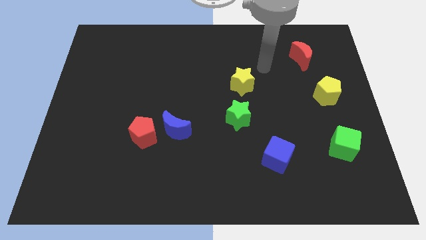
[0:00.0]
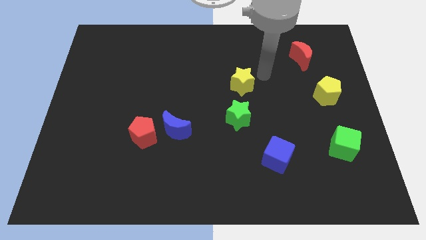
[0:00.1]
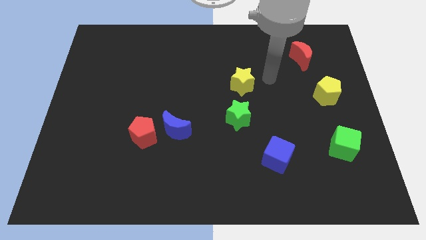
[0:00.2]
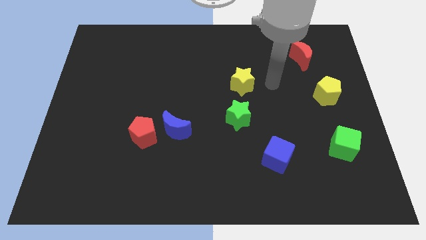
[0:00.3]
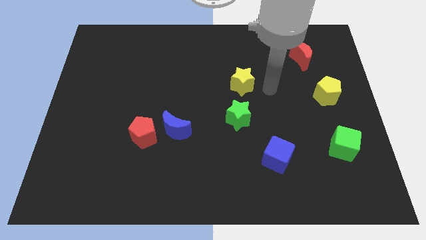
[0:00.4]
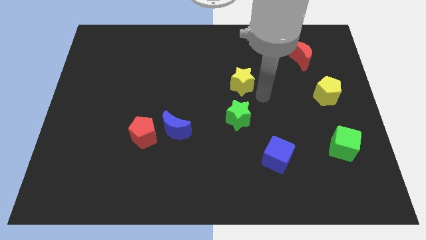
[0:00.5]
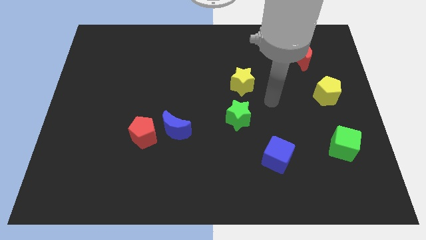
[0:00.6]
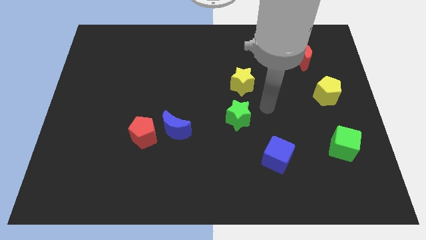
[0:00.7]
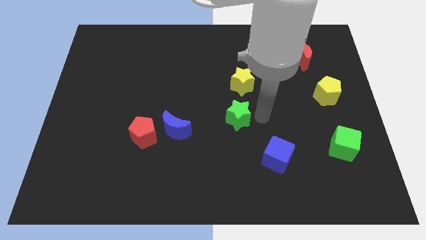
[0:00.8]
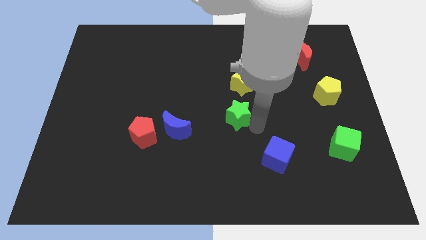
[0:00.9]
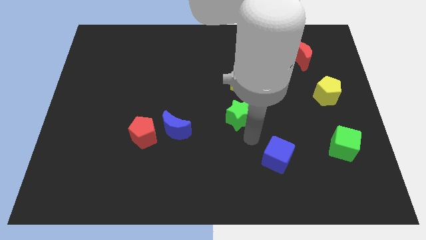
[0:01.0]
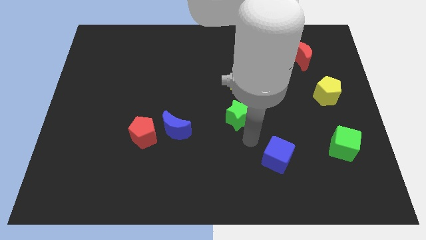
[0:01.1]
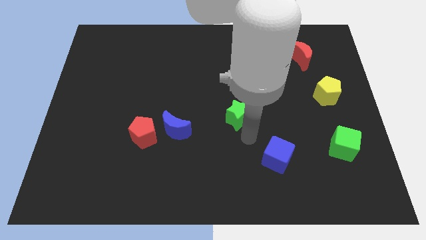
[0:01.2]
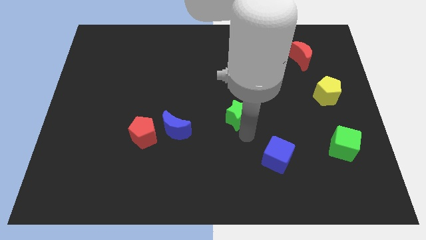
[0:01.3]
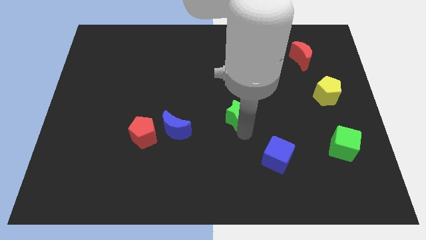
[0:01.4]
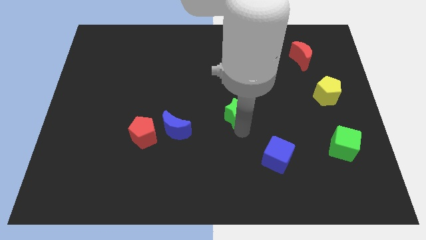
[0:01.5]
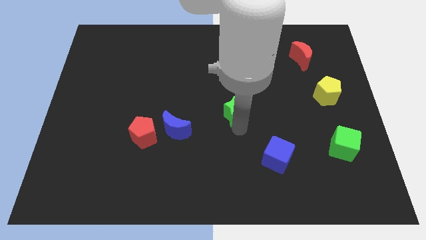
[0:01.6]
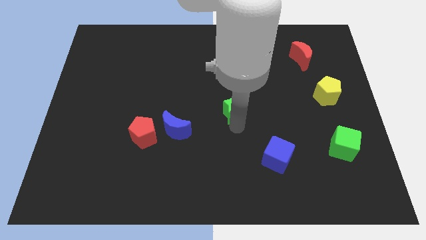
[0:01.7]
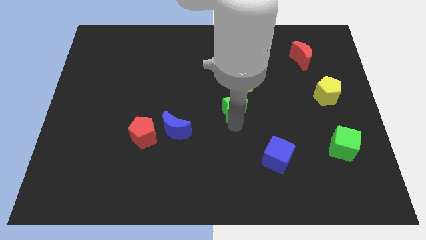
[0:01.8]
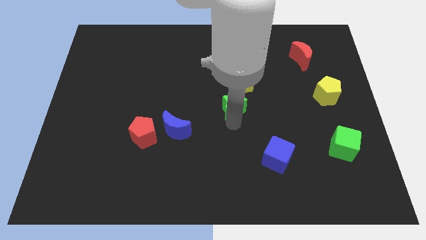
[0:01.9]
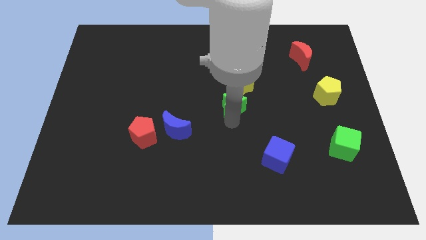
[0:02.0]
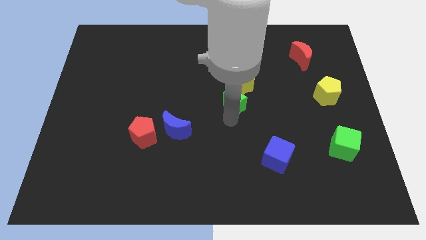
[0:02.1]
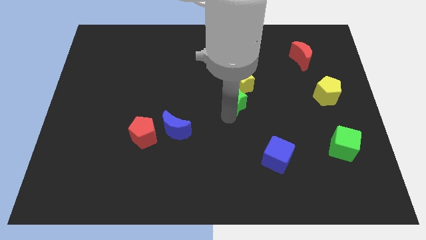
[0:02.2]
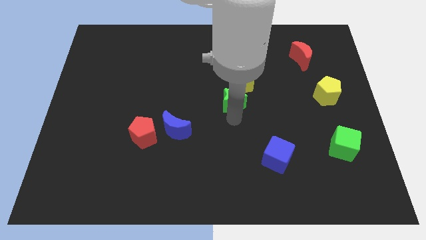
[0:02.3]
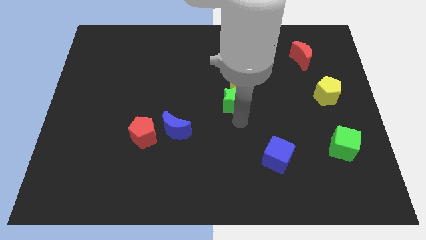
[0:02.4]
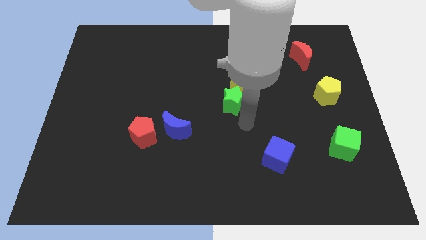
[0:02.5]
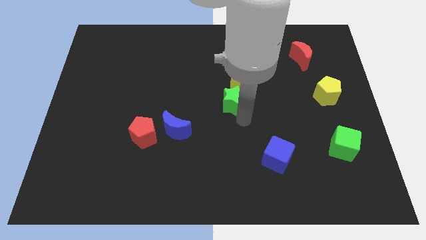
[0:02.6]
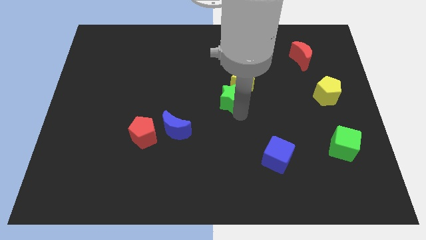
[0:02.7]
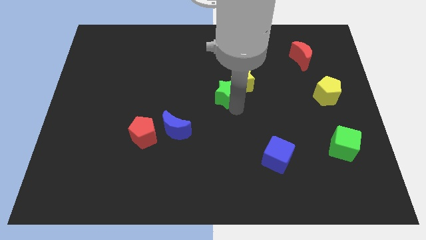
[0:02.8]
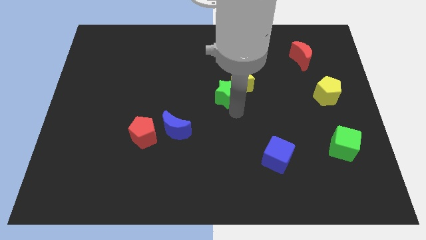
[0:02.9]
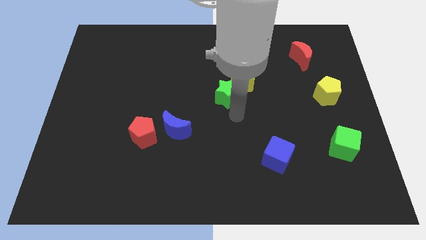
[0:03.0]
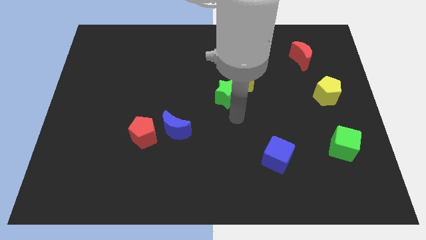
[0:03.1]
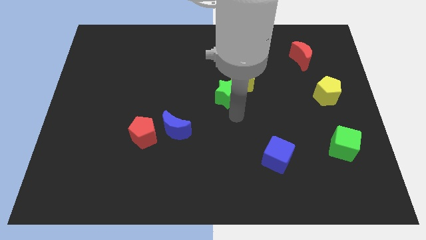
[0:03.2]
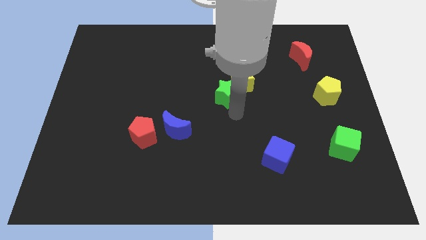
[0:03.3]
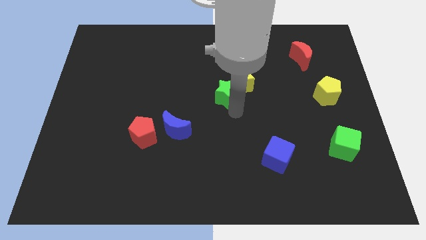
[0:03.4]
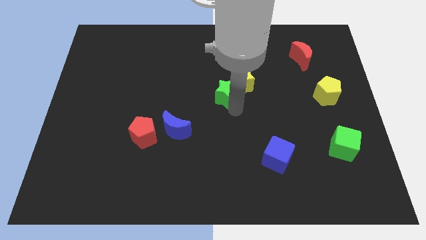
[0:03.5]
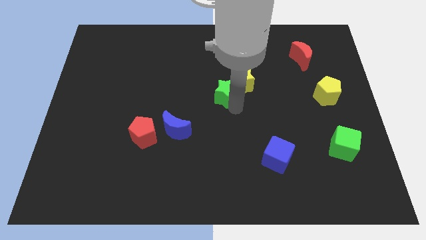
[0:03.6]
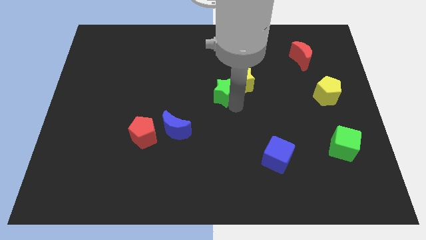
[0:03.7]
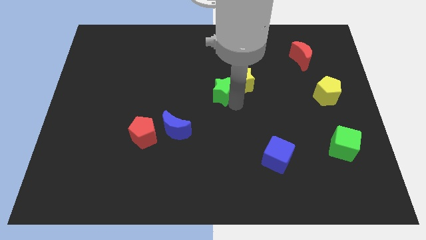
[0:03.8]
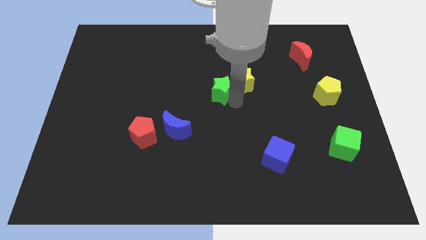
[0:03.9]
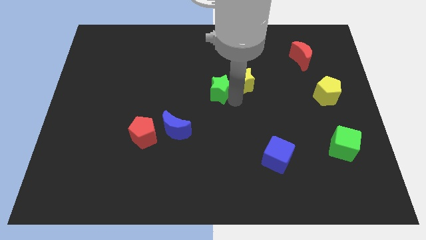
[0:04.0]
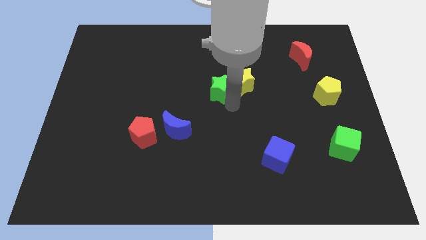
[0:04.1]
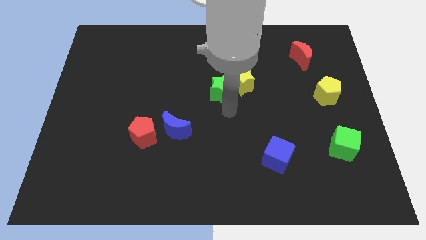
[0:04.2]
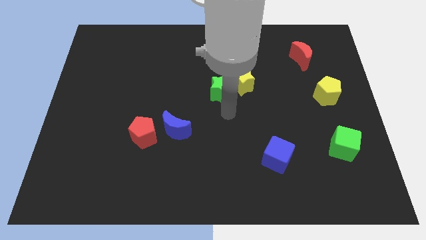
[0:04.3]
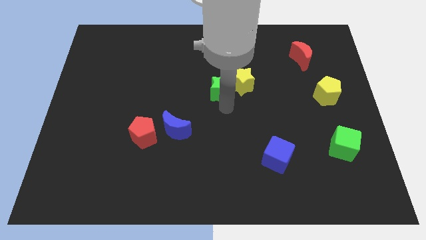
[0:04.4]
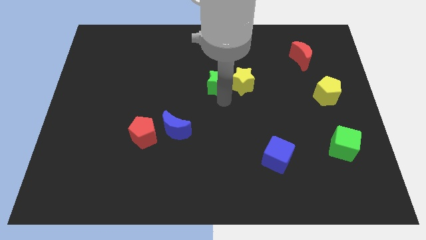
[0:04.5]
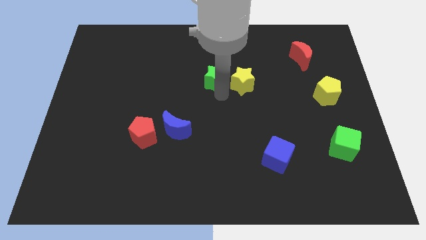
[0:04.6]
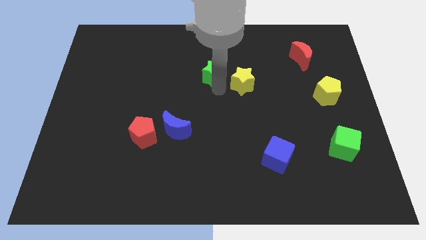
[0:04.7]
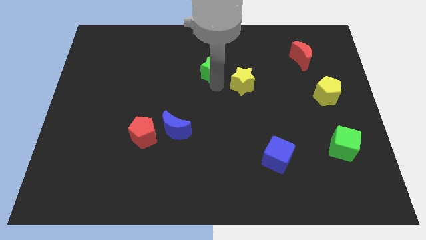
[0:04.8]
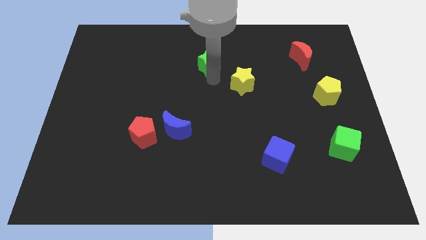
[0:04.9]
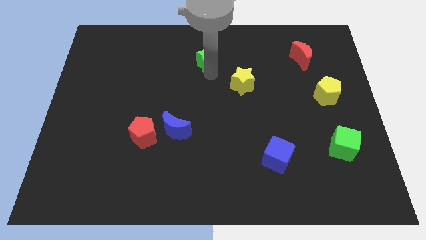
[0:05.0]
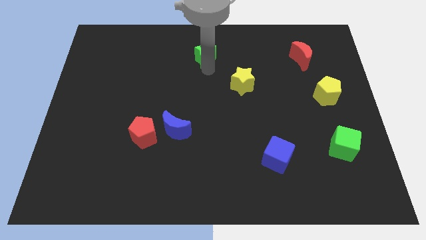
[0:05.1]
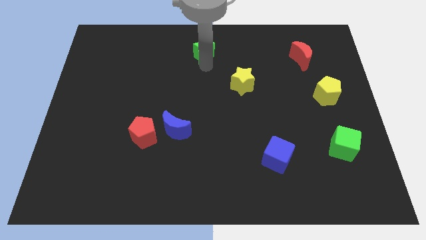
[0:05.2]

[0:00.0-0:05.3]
push the green star to the towards your base

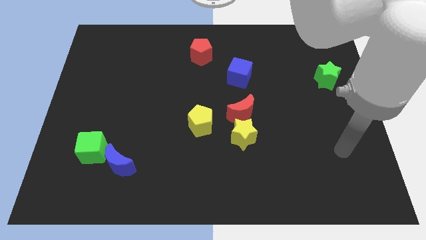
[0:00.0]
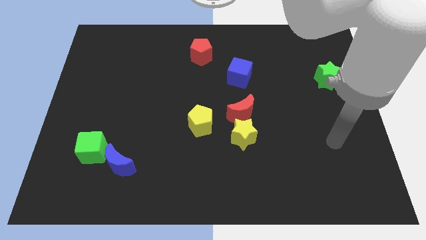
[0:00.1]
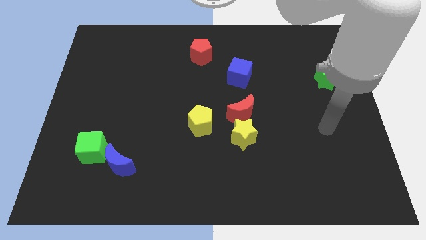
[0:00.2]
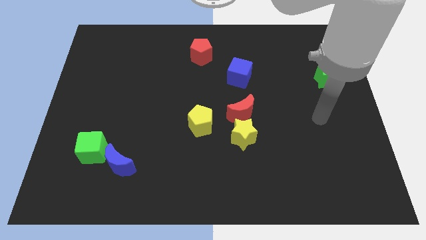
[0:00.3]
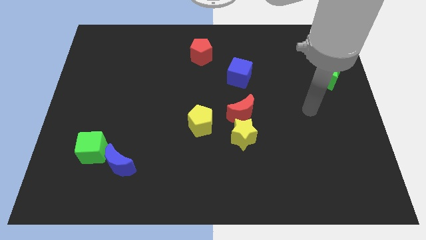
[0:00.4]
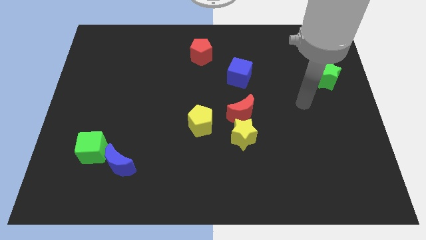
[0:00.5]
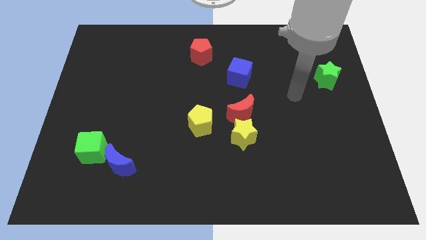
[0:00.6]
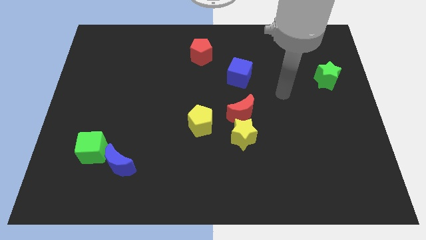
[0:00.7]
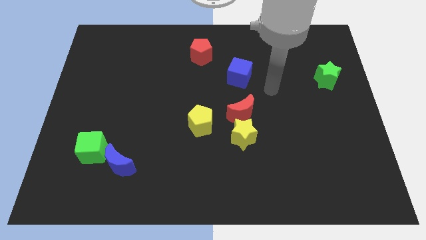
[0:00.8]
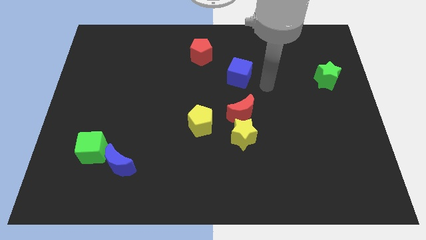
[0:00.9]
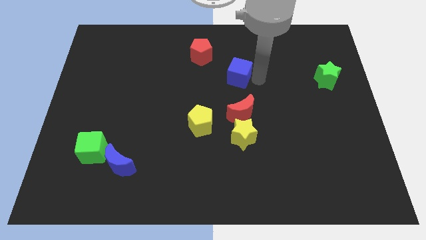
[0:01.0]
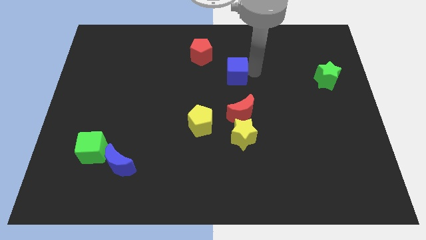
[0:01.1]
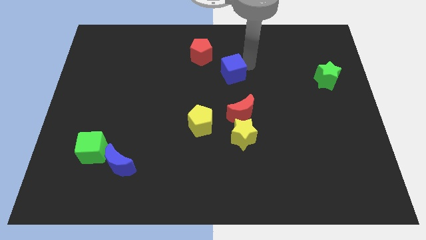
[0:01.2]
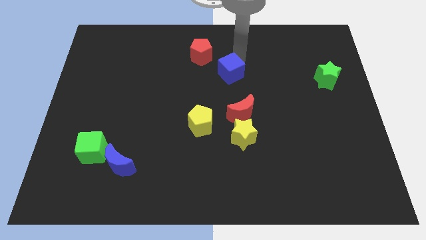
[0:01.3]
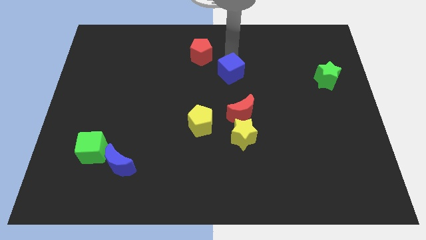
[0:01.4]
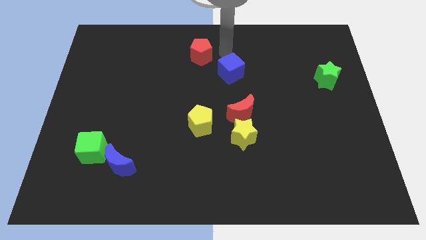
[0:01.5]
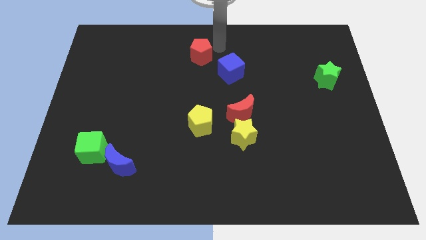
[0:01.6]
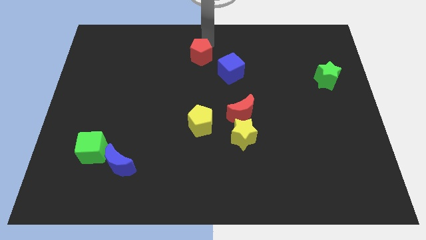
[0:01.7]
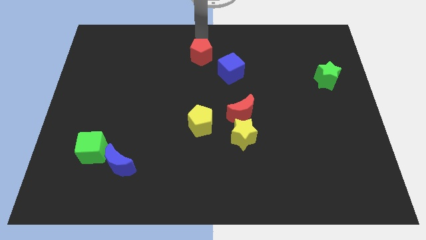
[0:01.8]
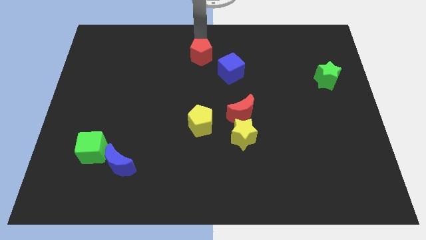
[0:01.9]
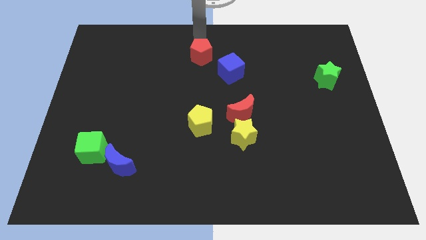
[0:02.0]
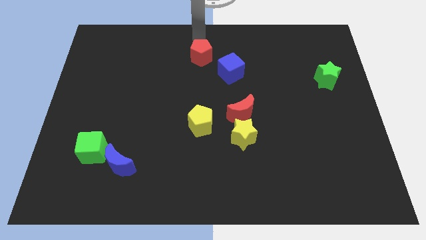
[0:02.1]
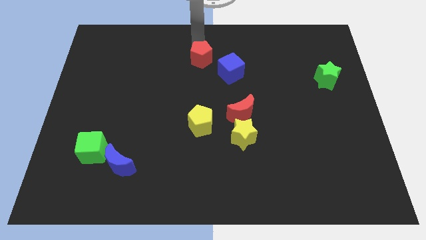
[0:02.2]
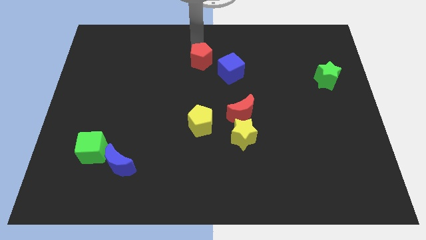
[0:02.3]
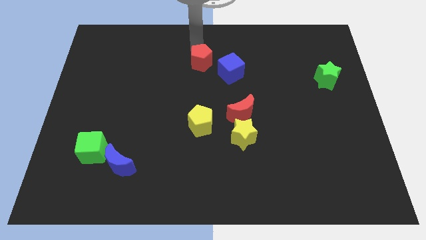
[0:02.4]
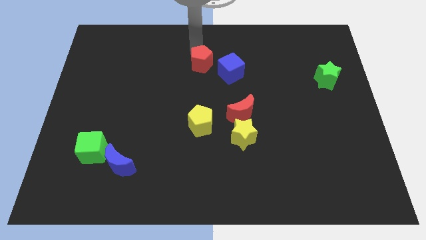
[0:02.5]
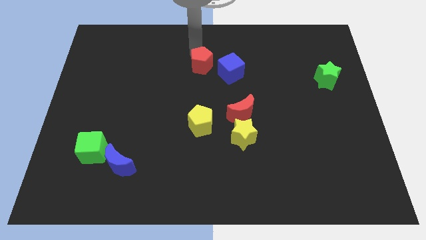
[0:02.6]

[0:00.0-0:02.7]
slide the red pentagon to the middle
